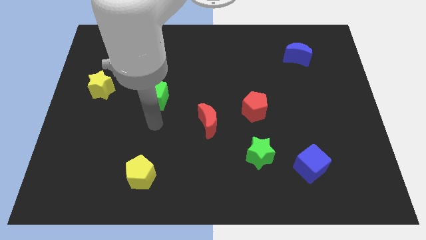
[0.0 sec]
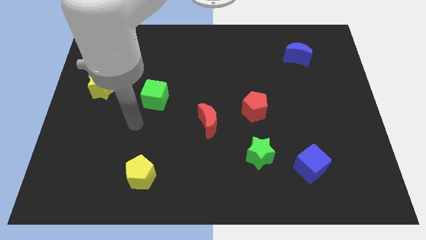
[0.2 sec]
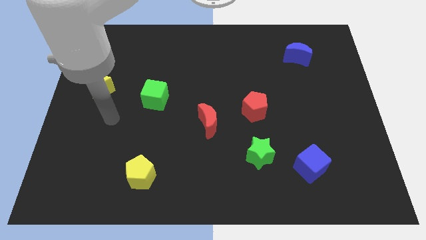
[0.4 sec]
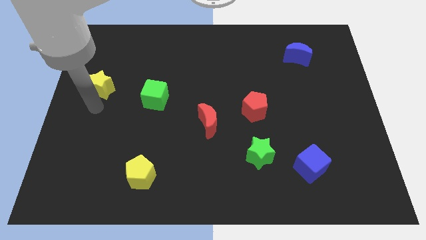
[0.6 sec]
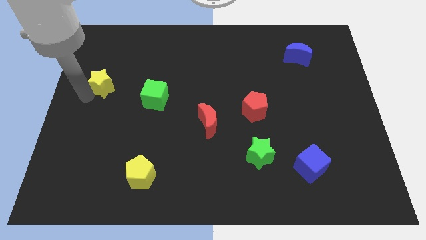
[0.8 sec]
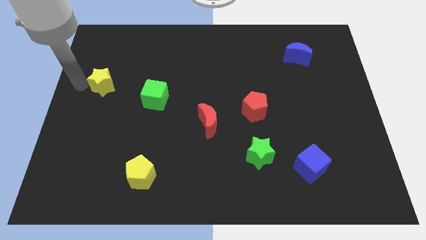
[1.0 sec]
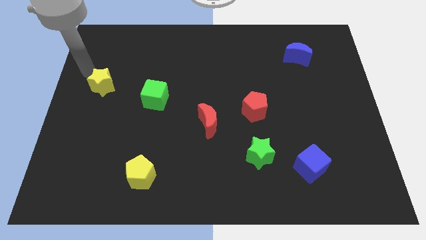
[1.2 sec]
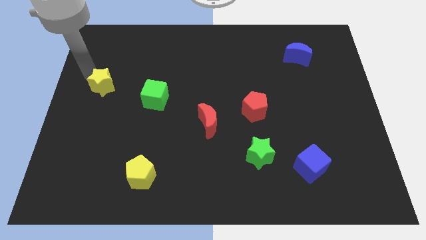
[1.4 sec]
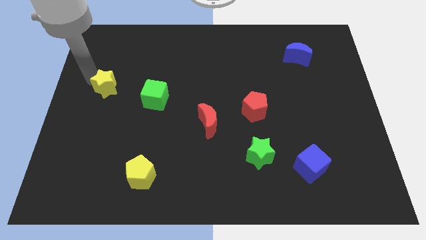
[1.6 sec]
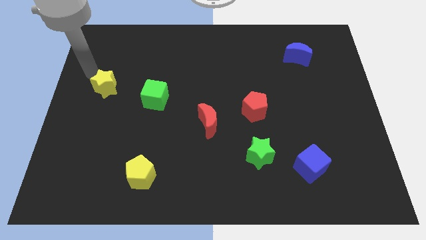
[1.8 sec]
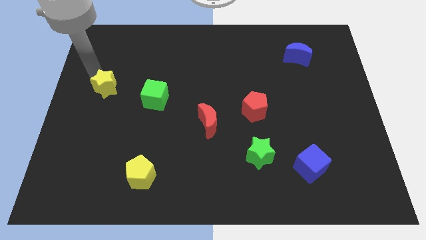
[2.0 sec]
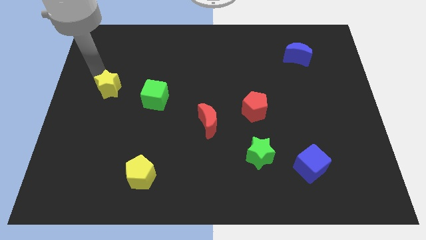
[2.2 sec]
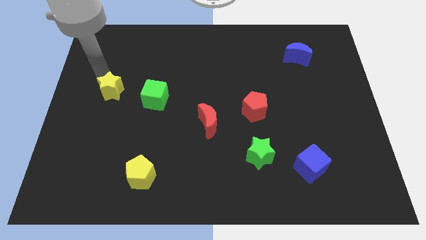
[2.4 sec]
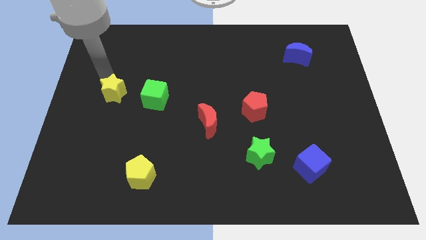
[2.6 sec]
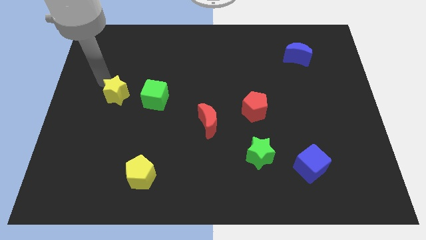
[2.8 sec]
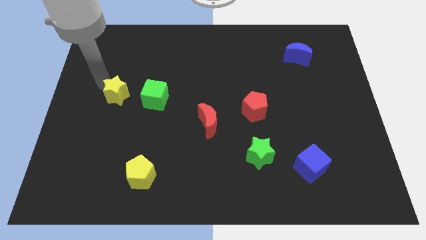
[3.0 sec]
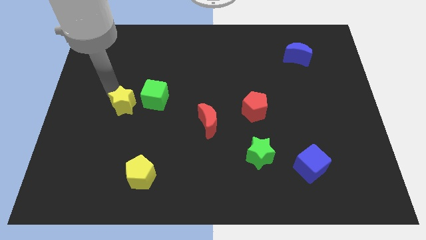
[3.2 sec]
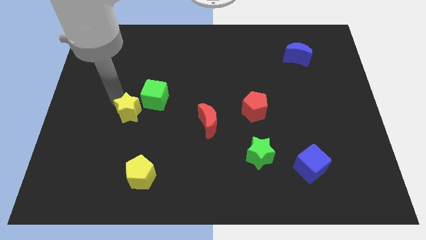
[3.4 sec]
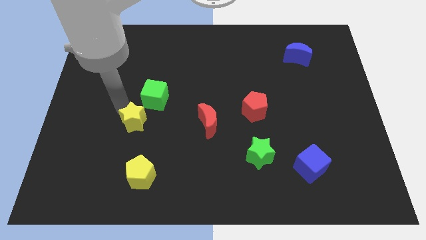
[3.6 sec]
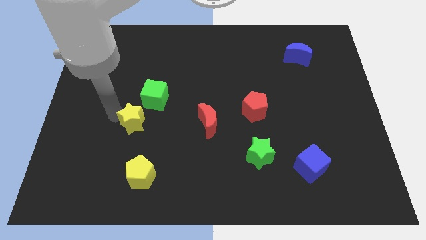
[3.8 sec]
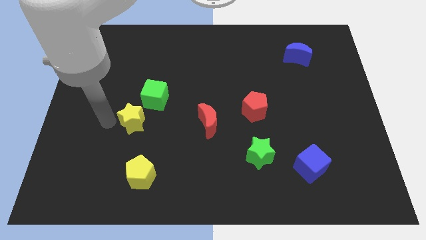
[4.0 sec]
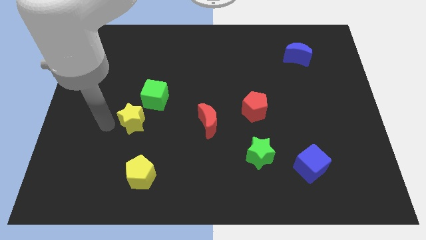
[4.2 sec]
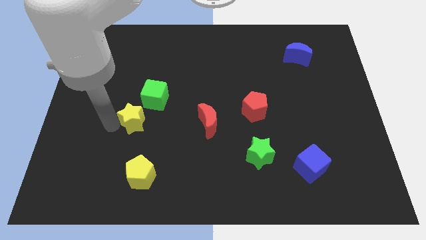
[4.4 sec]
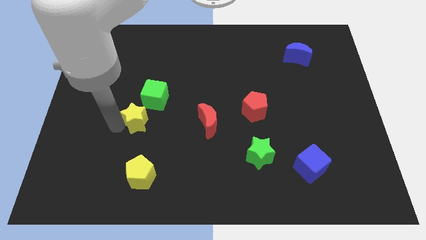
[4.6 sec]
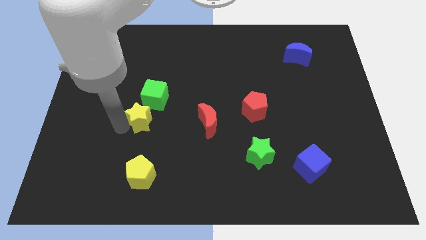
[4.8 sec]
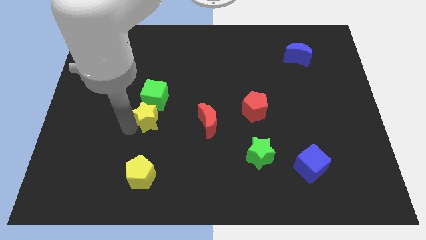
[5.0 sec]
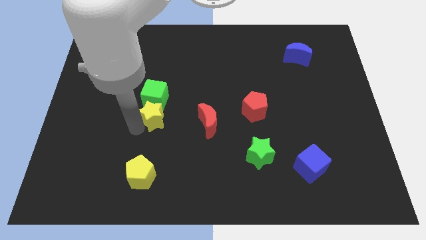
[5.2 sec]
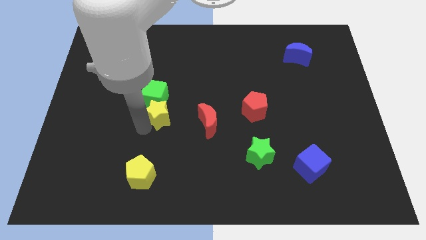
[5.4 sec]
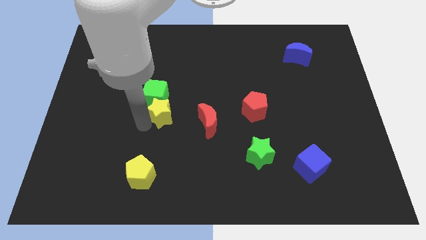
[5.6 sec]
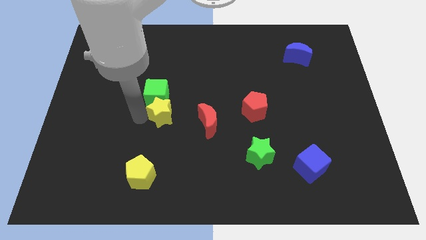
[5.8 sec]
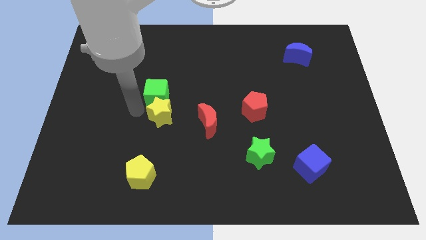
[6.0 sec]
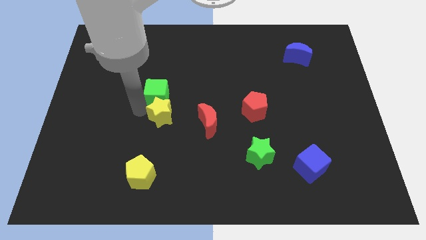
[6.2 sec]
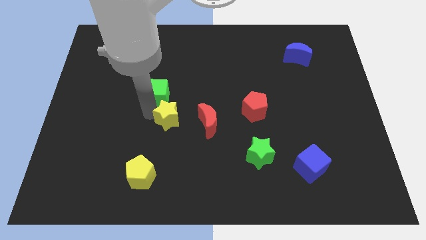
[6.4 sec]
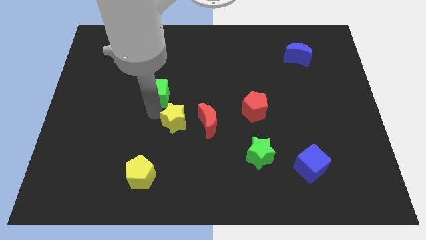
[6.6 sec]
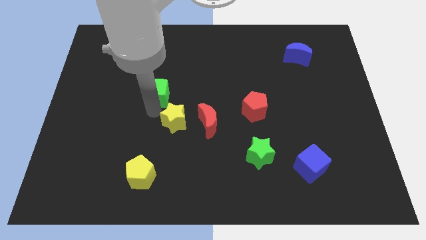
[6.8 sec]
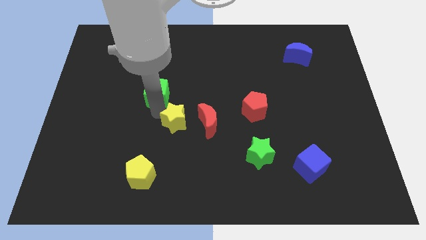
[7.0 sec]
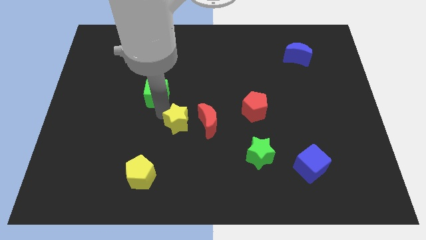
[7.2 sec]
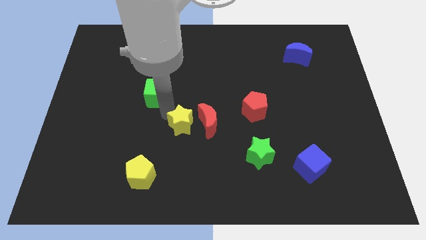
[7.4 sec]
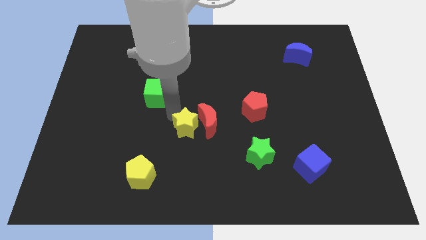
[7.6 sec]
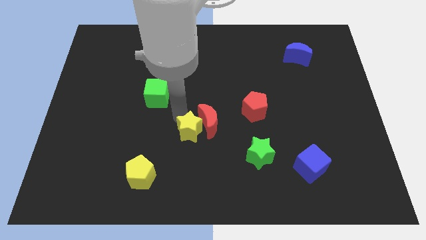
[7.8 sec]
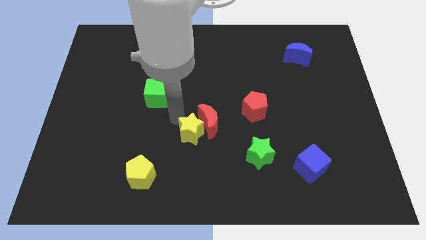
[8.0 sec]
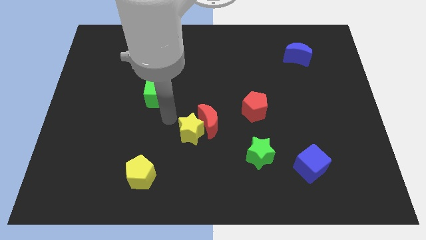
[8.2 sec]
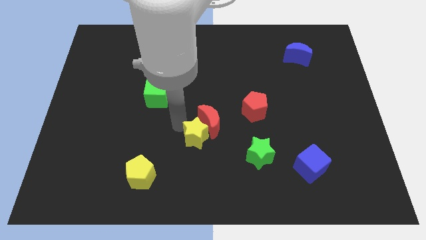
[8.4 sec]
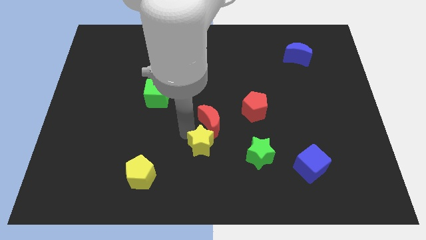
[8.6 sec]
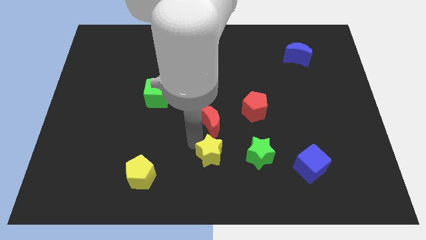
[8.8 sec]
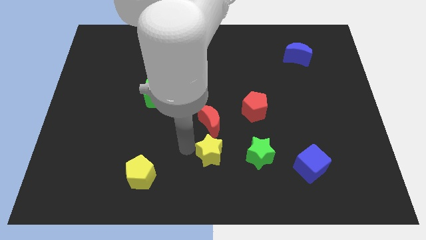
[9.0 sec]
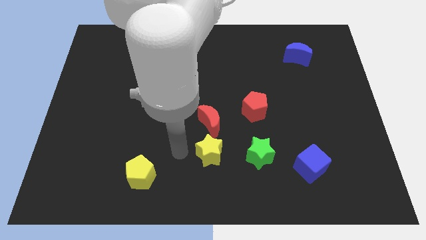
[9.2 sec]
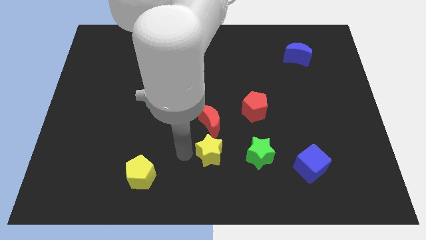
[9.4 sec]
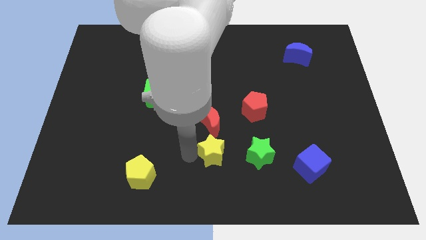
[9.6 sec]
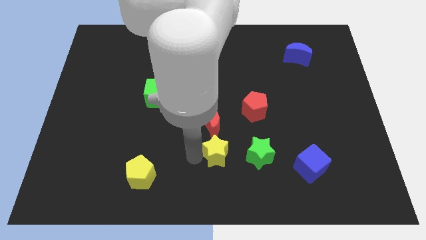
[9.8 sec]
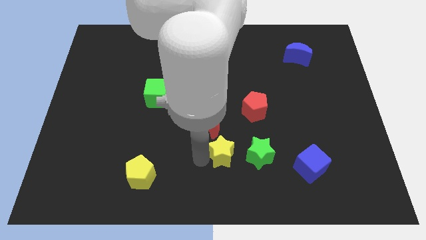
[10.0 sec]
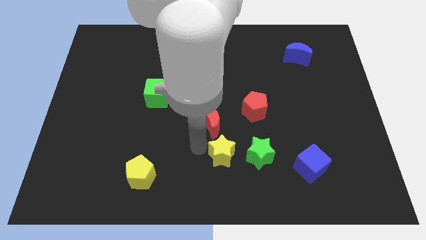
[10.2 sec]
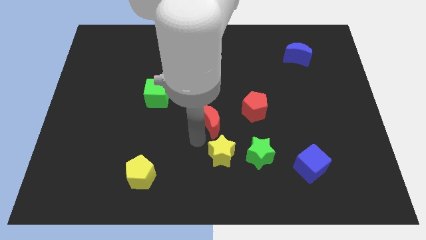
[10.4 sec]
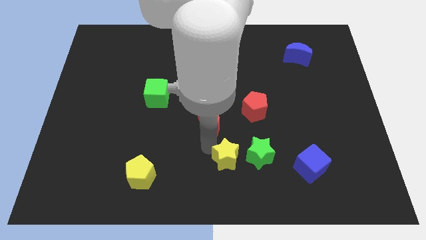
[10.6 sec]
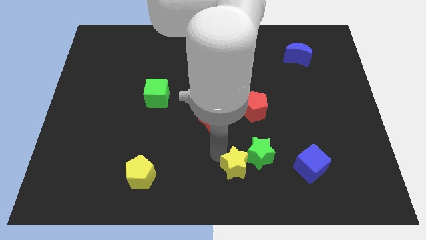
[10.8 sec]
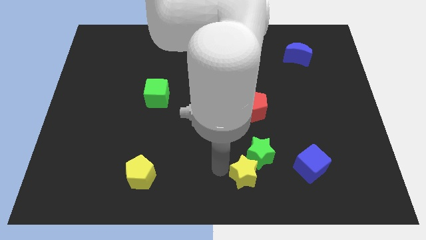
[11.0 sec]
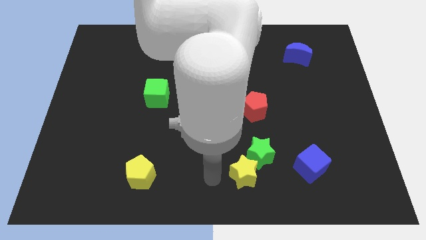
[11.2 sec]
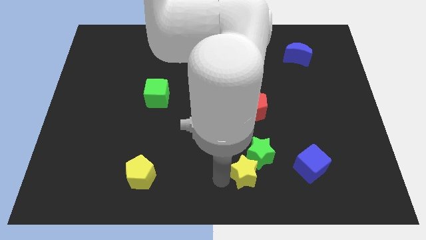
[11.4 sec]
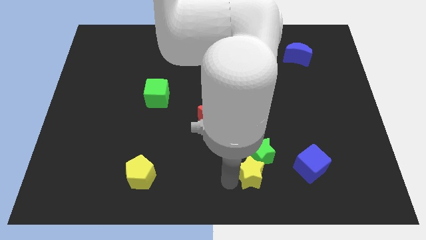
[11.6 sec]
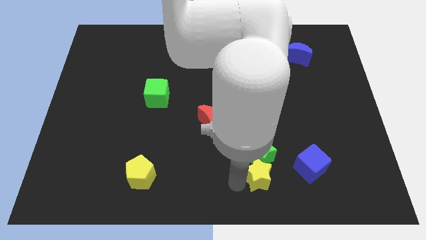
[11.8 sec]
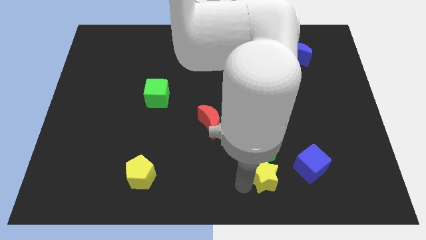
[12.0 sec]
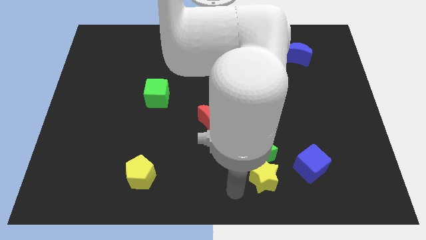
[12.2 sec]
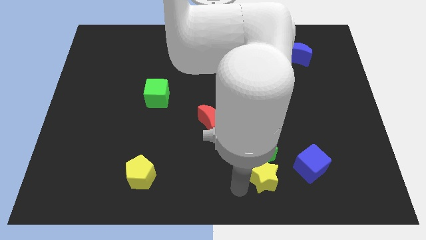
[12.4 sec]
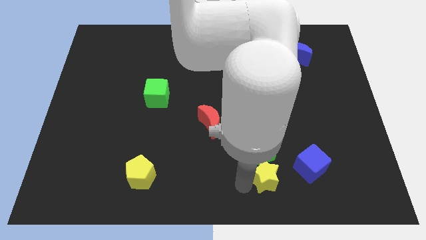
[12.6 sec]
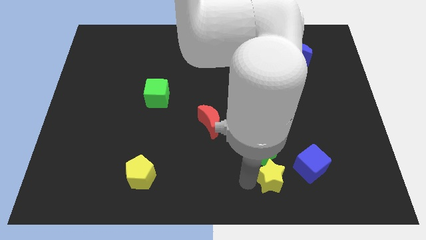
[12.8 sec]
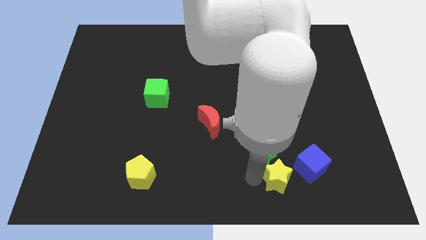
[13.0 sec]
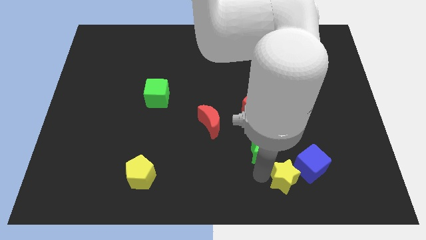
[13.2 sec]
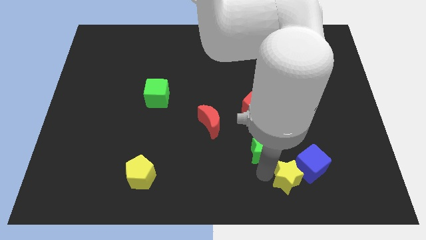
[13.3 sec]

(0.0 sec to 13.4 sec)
push the yellow star next to the blue cube

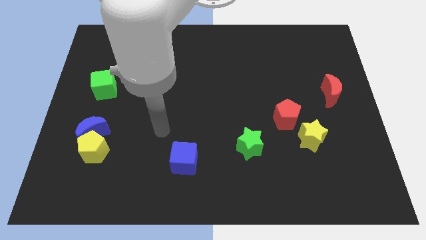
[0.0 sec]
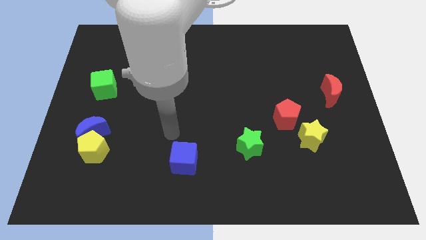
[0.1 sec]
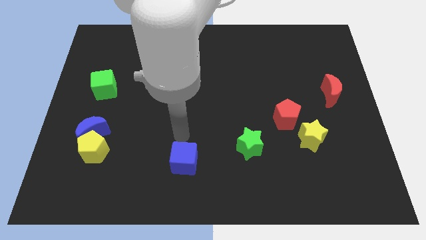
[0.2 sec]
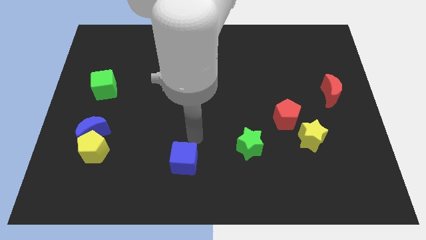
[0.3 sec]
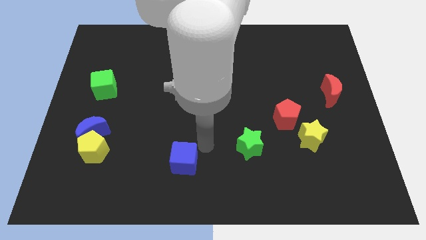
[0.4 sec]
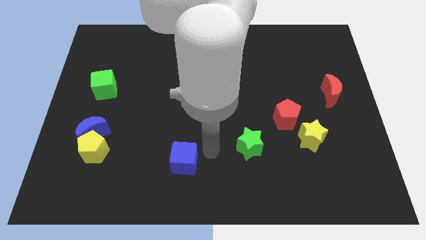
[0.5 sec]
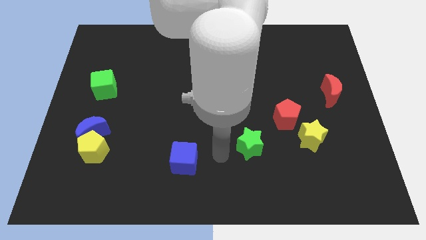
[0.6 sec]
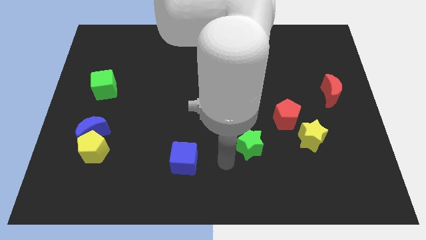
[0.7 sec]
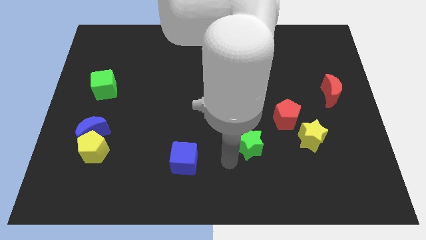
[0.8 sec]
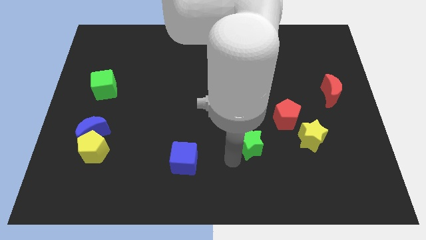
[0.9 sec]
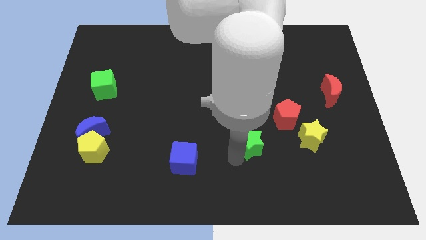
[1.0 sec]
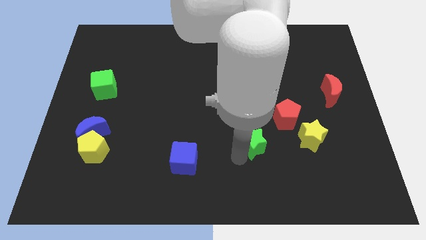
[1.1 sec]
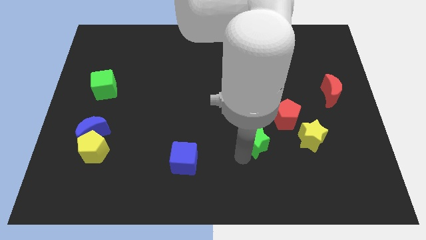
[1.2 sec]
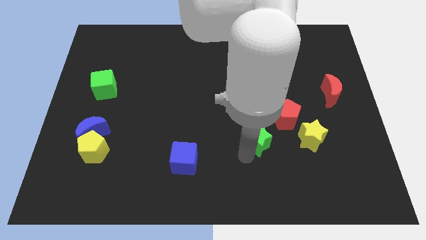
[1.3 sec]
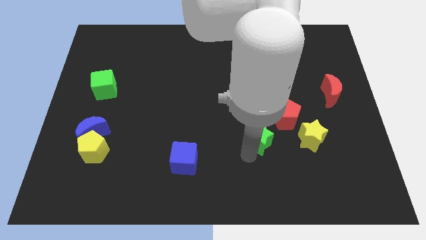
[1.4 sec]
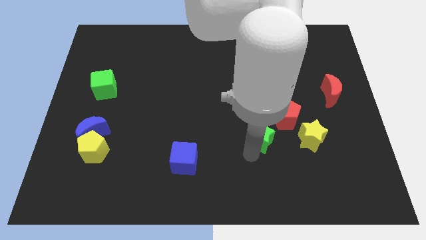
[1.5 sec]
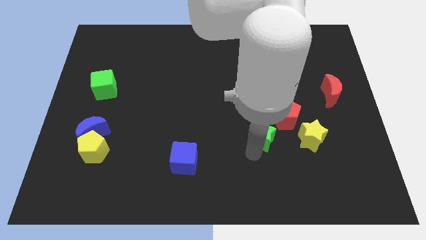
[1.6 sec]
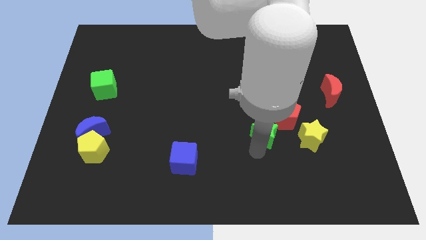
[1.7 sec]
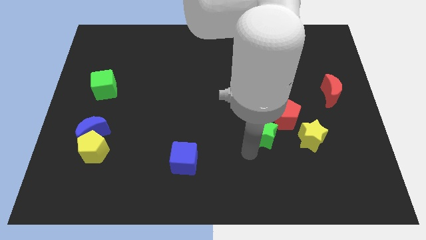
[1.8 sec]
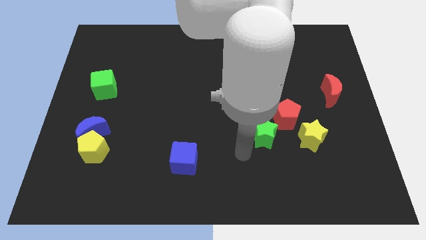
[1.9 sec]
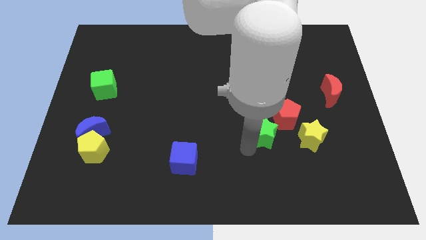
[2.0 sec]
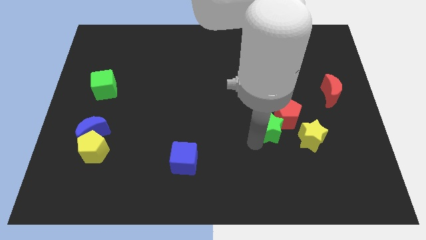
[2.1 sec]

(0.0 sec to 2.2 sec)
put the green star to the red pentagon
